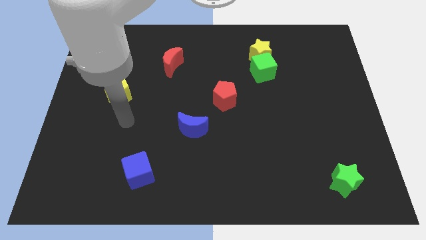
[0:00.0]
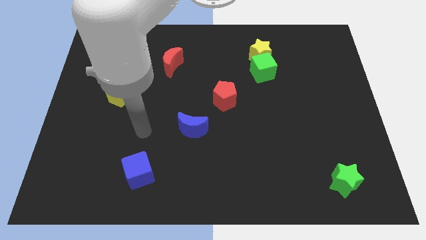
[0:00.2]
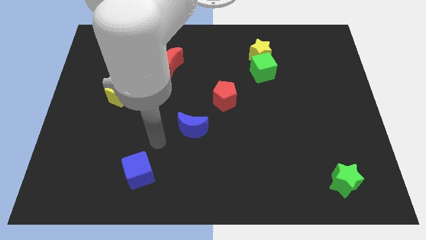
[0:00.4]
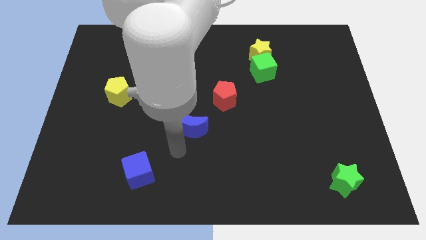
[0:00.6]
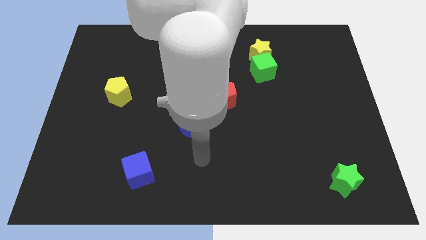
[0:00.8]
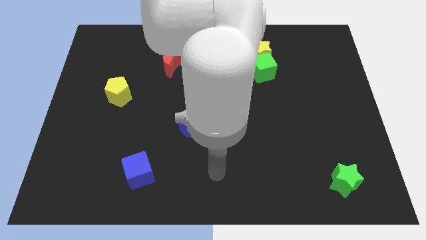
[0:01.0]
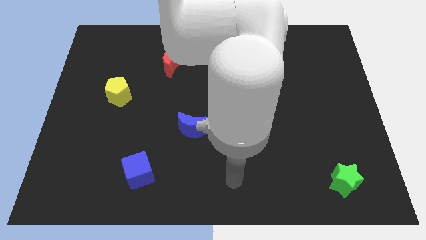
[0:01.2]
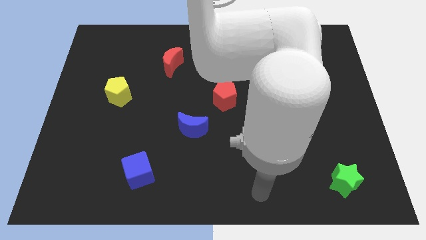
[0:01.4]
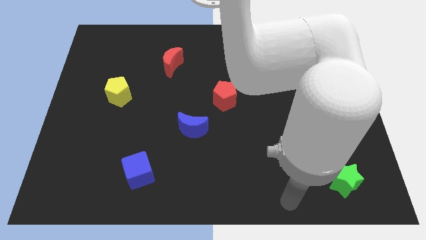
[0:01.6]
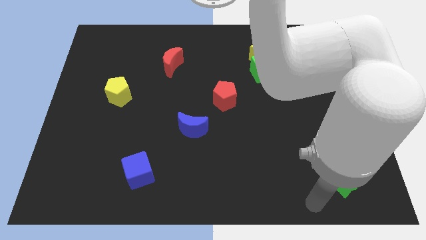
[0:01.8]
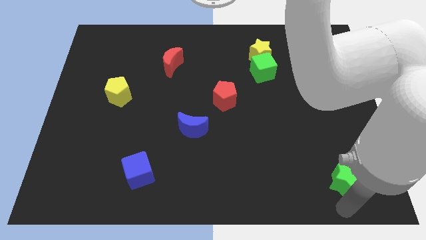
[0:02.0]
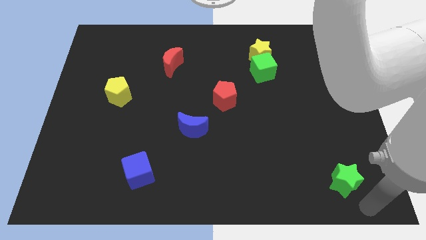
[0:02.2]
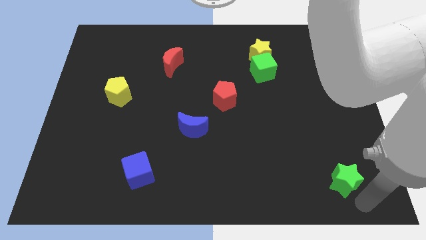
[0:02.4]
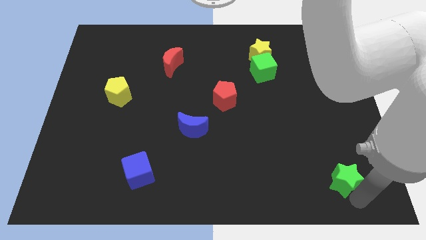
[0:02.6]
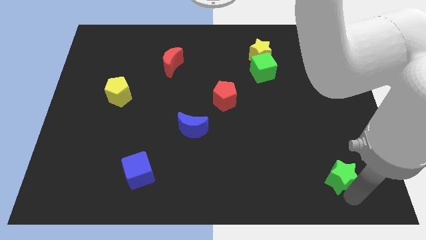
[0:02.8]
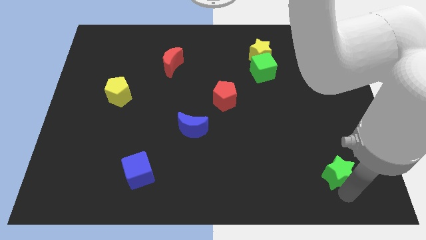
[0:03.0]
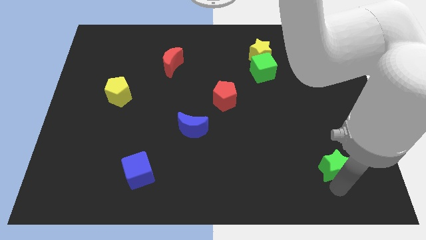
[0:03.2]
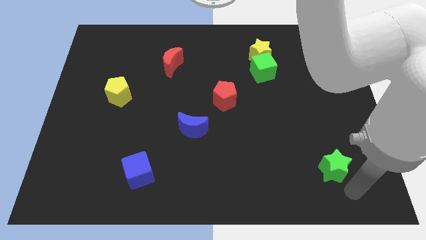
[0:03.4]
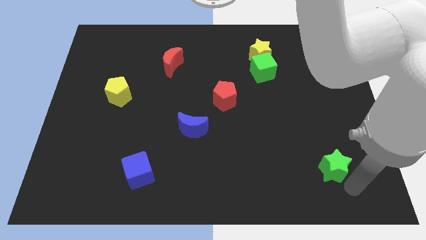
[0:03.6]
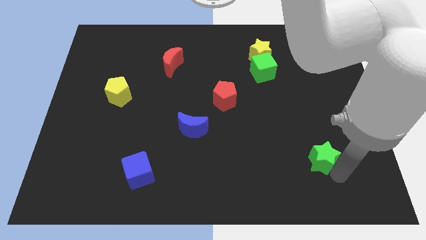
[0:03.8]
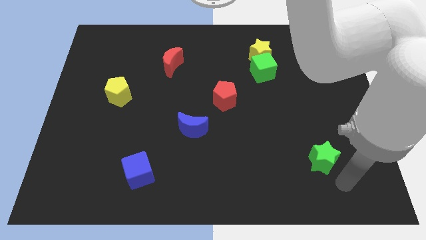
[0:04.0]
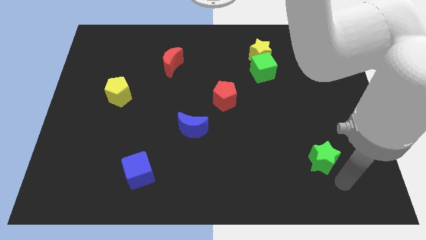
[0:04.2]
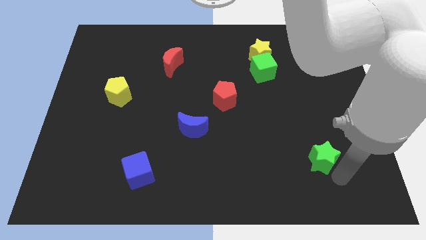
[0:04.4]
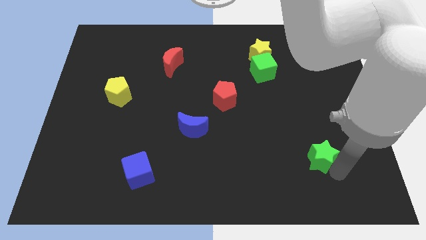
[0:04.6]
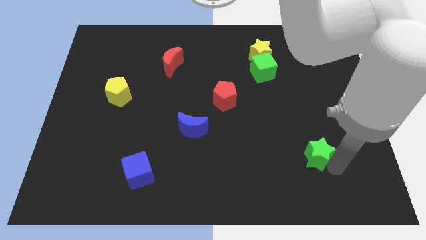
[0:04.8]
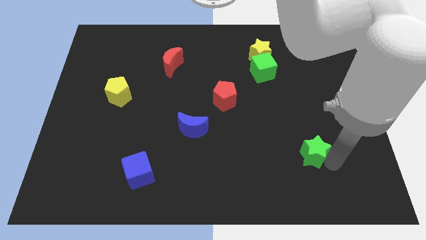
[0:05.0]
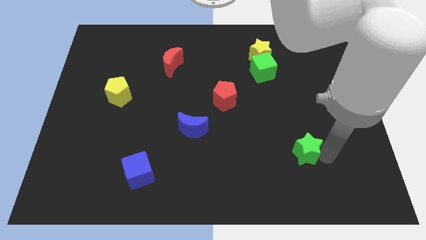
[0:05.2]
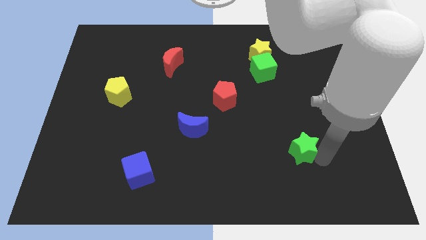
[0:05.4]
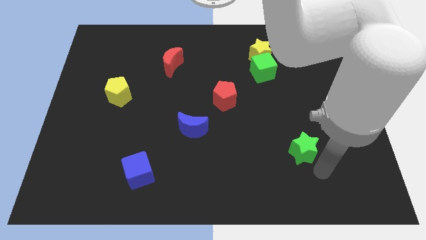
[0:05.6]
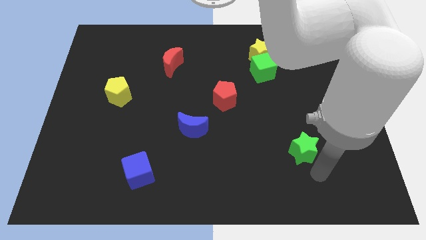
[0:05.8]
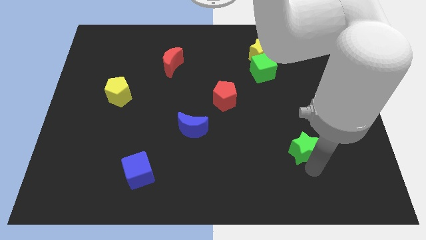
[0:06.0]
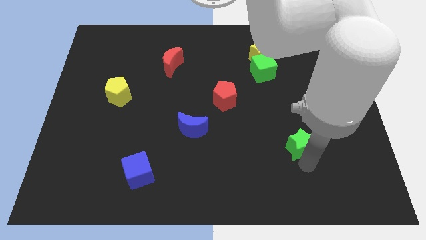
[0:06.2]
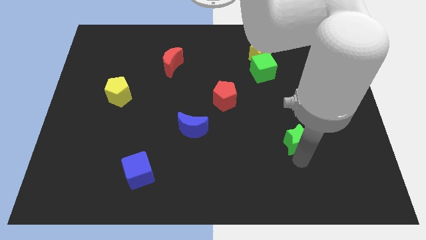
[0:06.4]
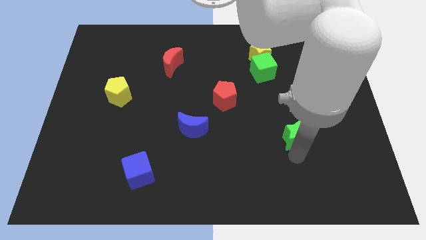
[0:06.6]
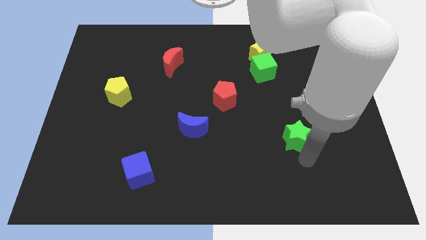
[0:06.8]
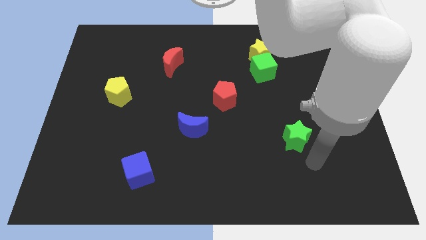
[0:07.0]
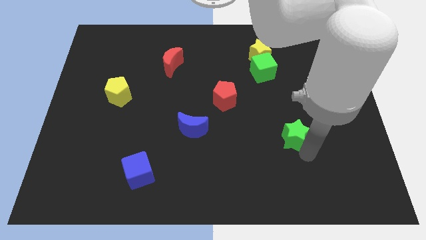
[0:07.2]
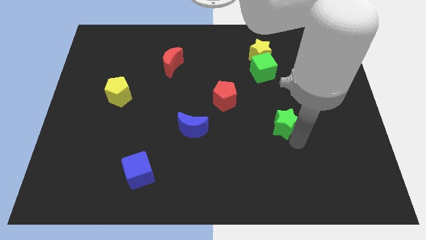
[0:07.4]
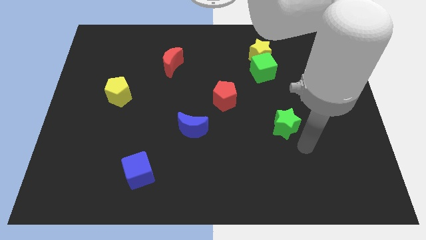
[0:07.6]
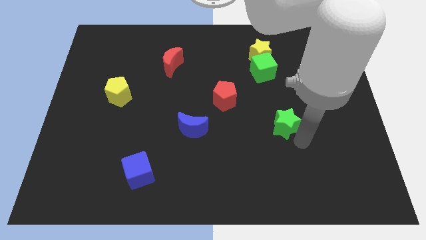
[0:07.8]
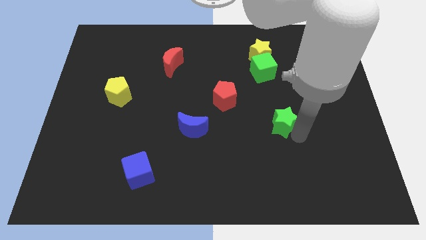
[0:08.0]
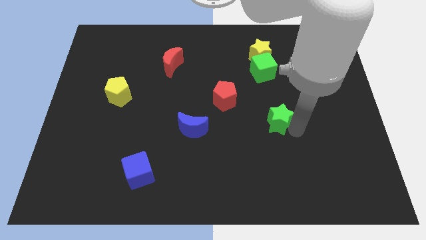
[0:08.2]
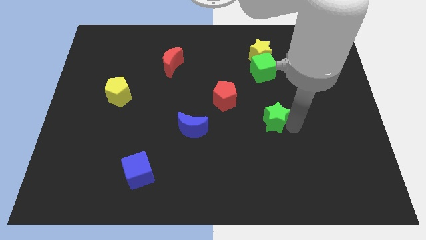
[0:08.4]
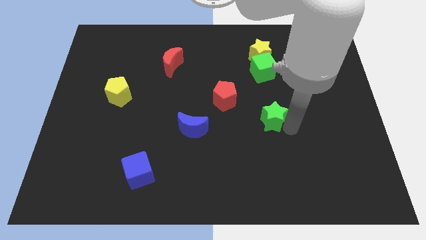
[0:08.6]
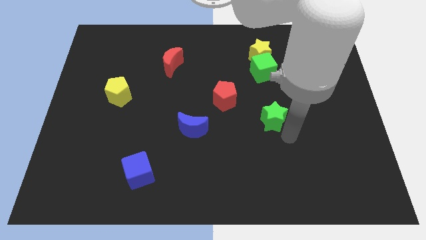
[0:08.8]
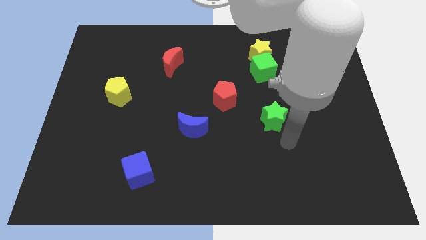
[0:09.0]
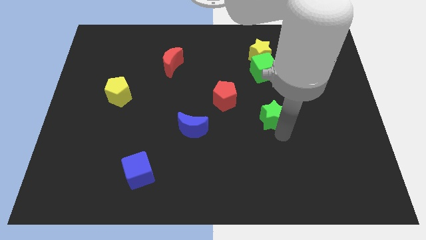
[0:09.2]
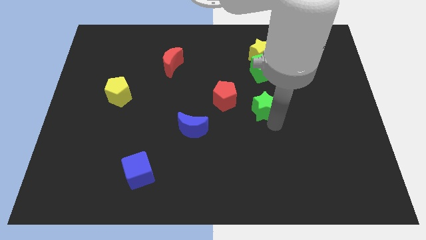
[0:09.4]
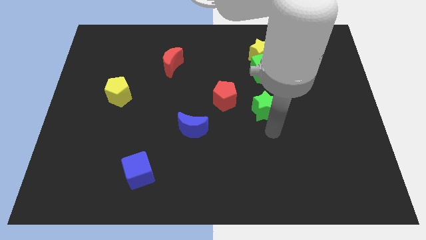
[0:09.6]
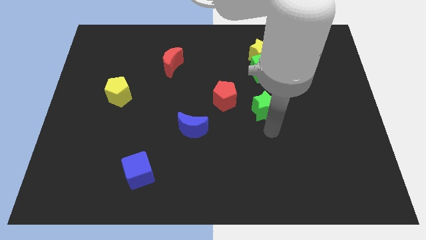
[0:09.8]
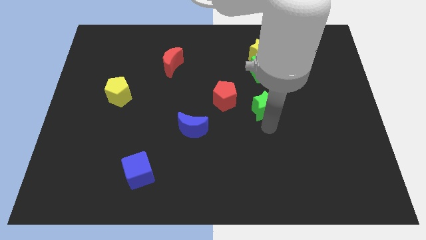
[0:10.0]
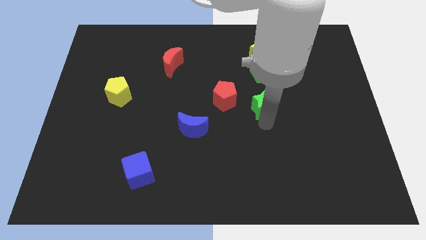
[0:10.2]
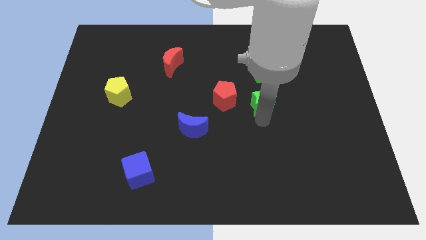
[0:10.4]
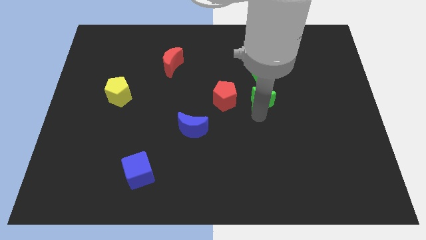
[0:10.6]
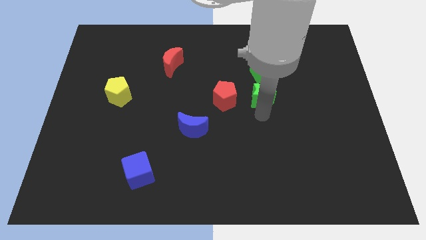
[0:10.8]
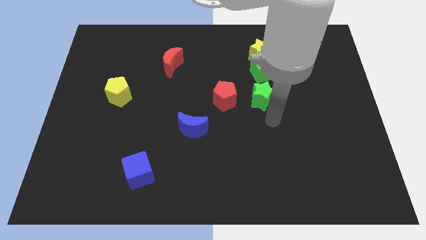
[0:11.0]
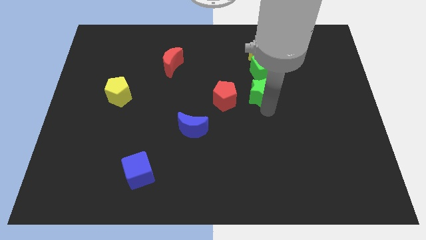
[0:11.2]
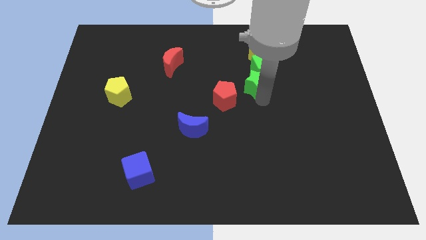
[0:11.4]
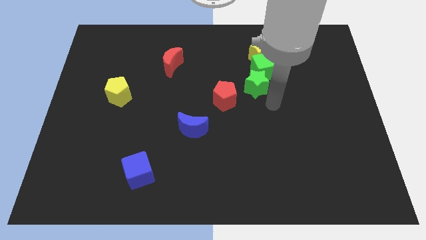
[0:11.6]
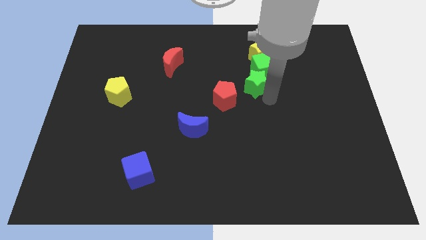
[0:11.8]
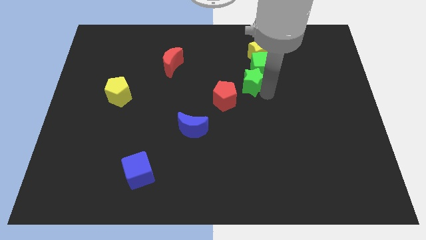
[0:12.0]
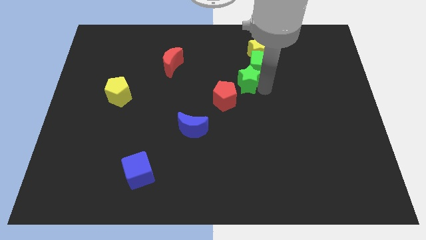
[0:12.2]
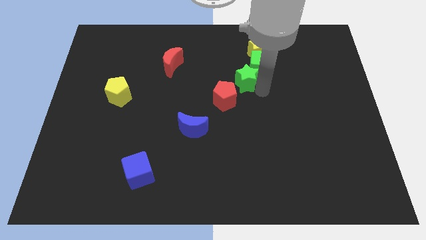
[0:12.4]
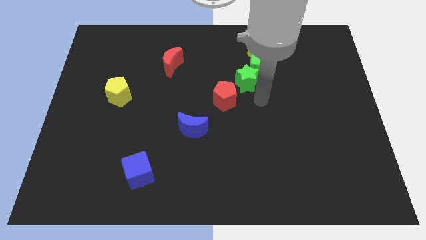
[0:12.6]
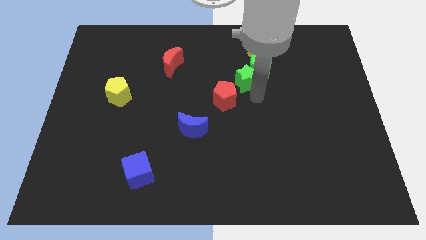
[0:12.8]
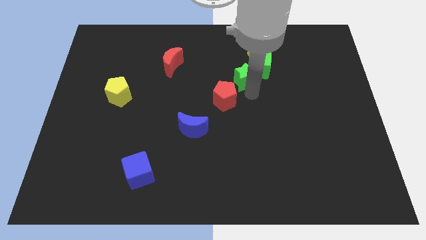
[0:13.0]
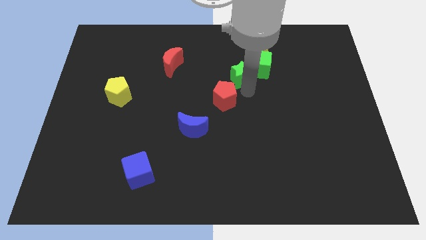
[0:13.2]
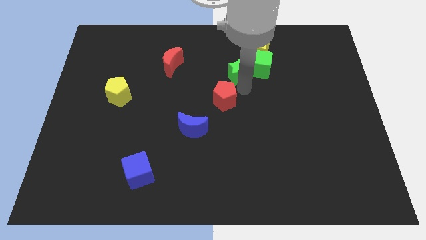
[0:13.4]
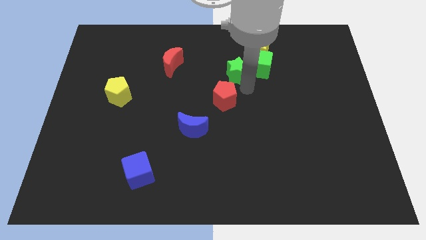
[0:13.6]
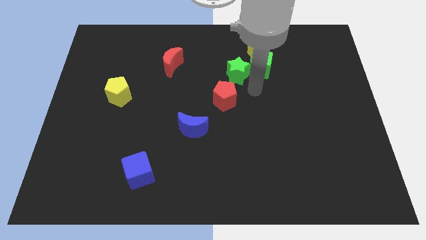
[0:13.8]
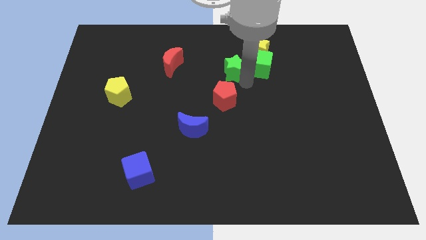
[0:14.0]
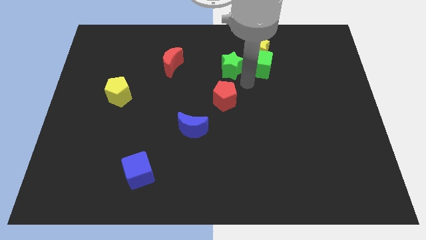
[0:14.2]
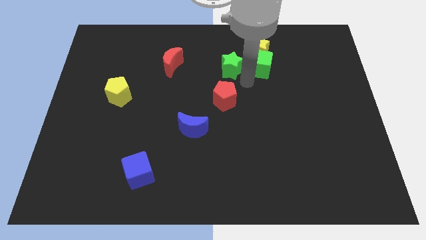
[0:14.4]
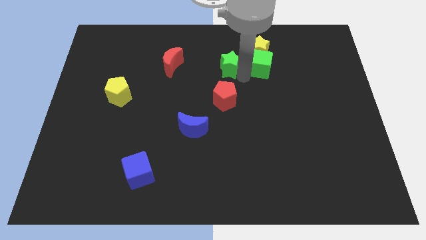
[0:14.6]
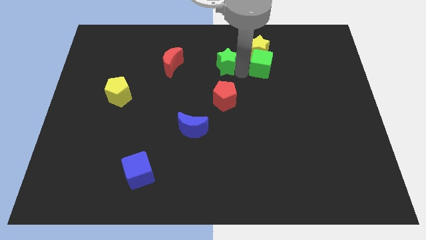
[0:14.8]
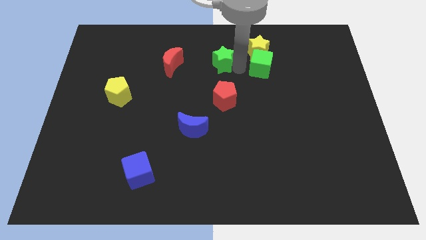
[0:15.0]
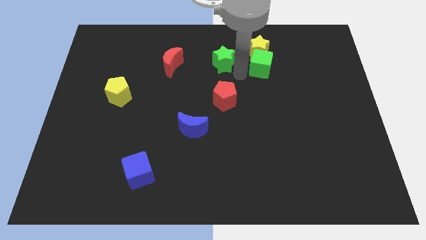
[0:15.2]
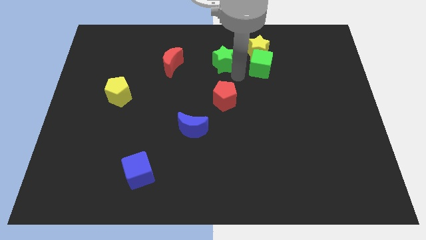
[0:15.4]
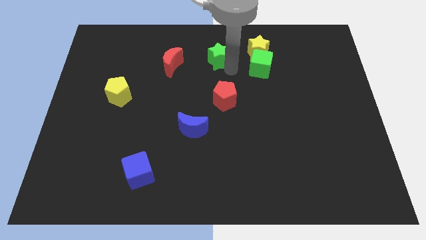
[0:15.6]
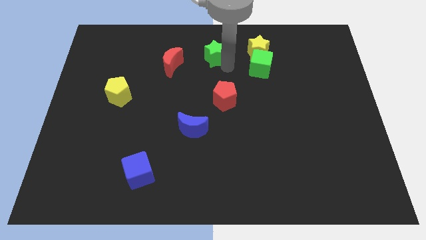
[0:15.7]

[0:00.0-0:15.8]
move the green star to the towards your base
